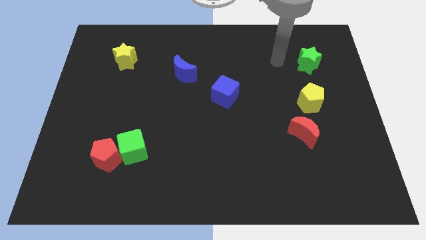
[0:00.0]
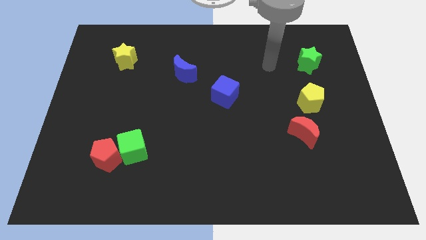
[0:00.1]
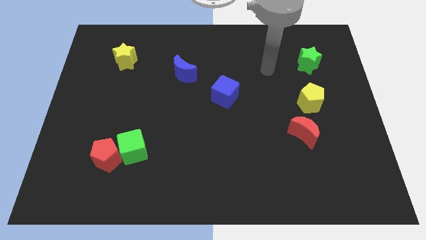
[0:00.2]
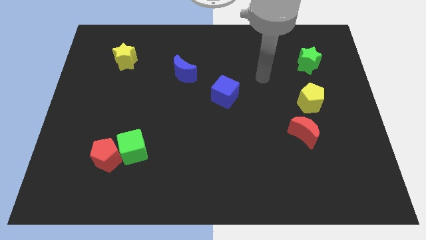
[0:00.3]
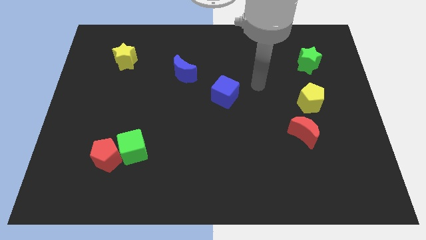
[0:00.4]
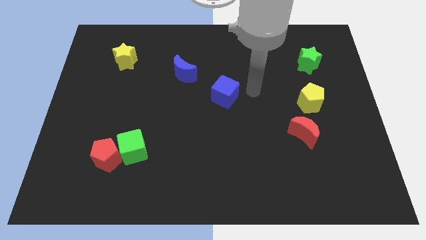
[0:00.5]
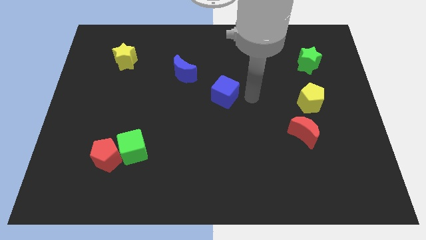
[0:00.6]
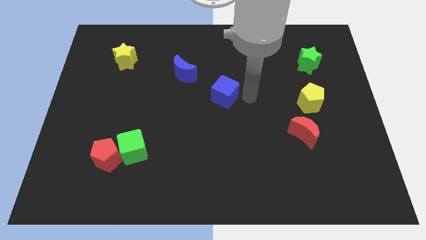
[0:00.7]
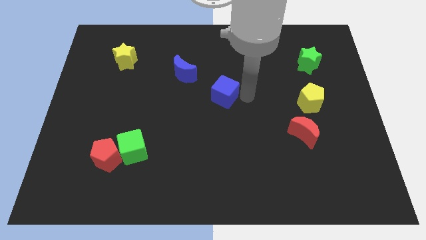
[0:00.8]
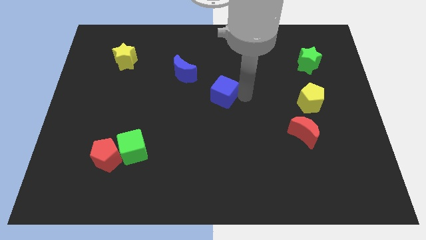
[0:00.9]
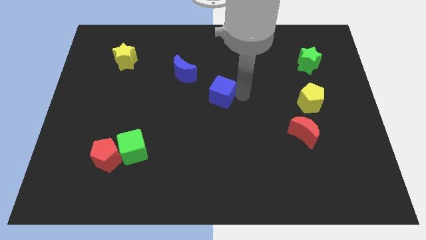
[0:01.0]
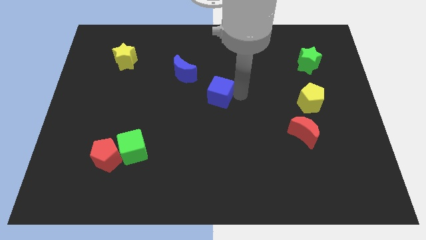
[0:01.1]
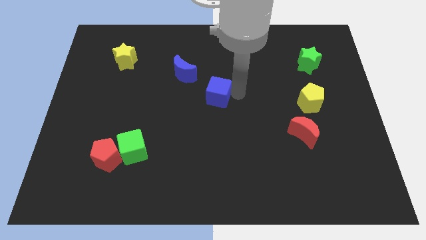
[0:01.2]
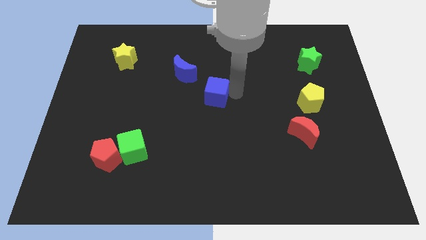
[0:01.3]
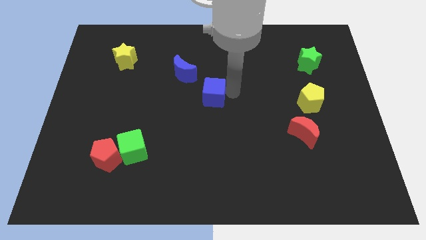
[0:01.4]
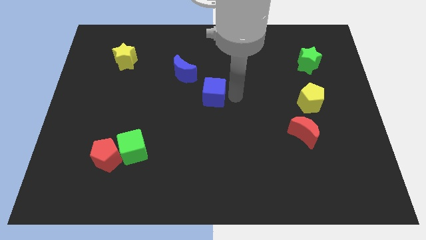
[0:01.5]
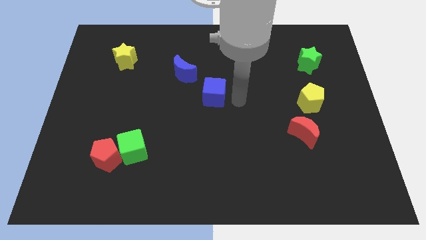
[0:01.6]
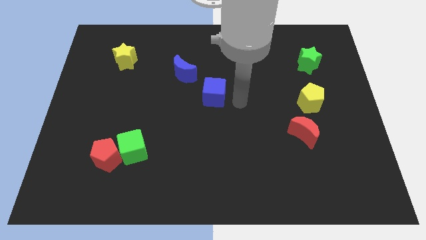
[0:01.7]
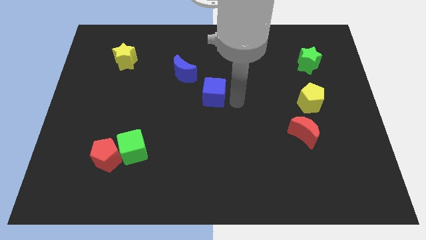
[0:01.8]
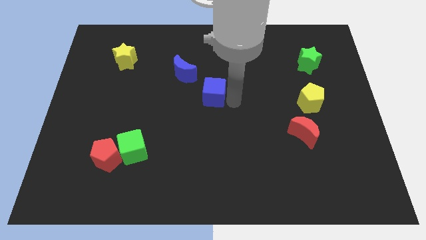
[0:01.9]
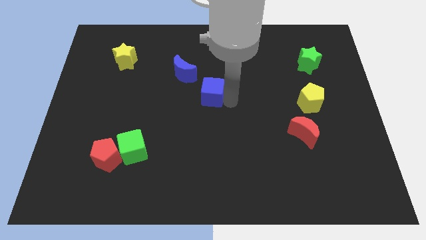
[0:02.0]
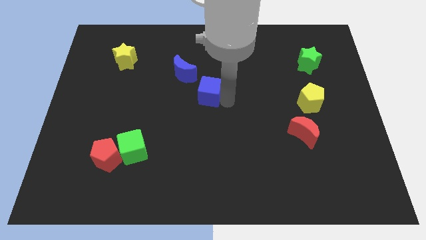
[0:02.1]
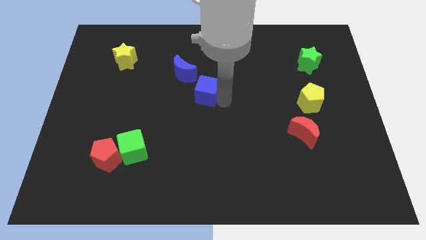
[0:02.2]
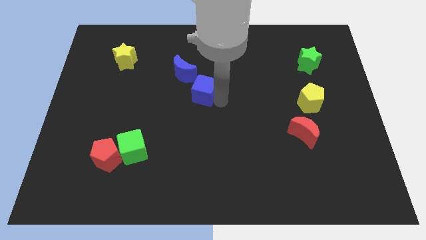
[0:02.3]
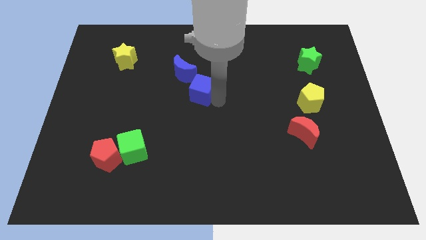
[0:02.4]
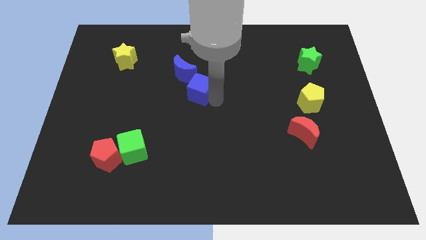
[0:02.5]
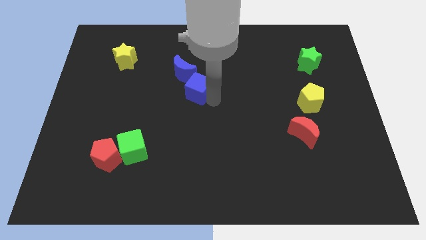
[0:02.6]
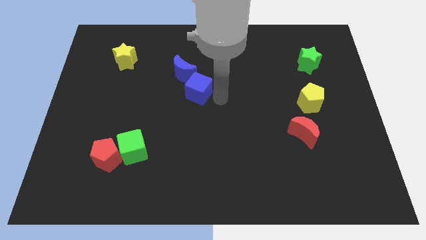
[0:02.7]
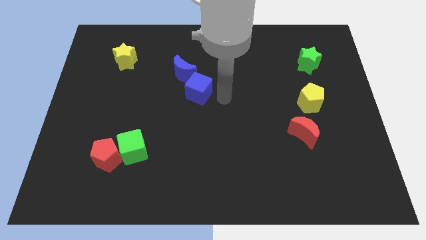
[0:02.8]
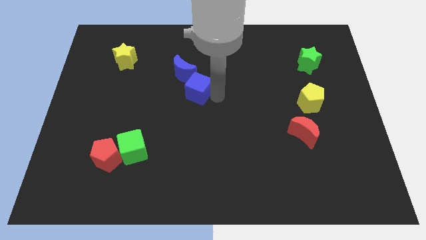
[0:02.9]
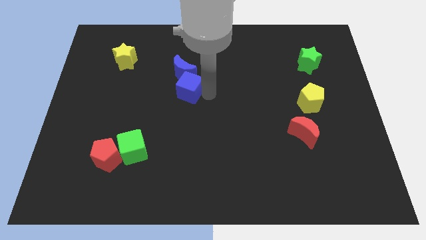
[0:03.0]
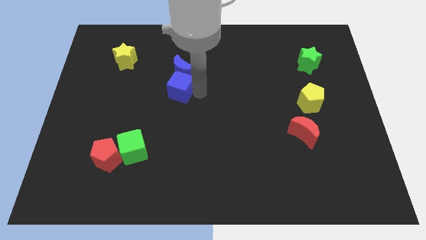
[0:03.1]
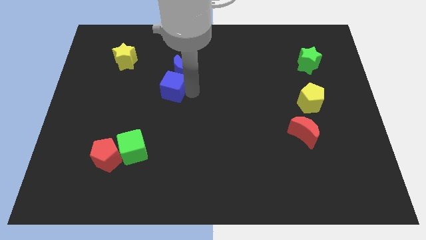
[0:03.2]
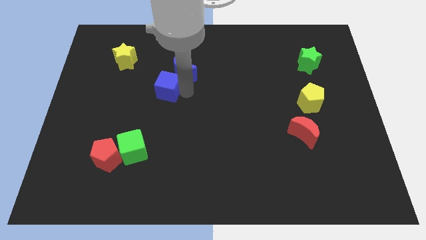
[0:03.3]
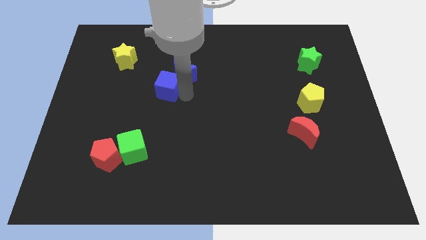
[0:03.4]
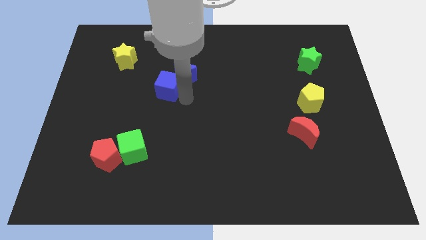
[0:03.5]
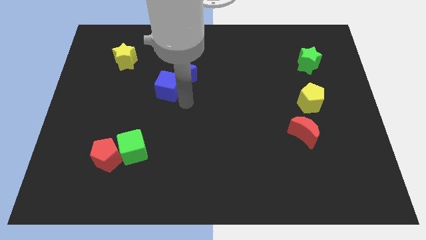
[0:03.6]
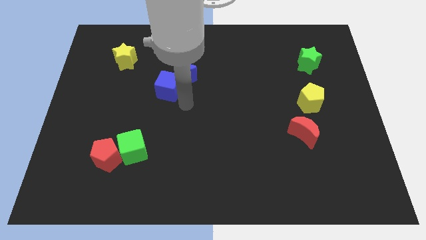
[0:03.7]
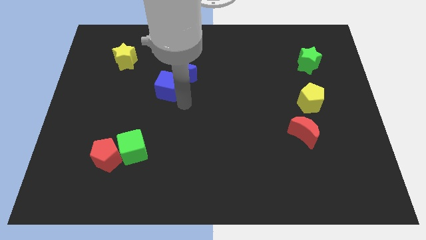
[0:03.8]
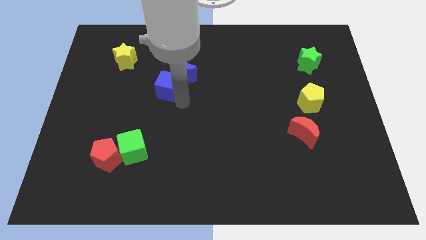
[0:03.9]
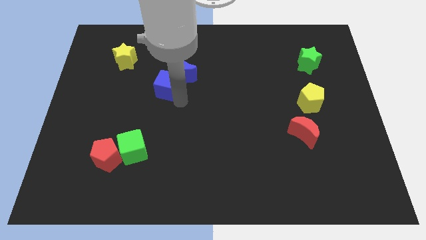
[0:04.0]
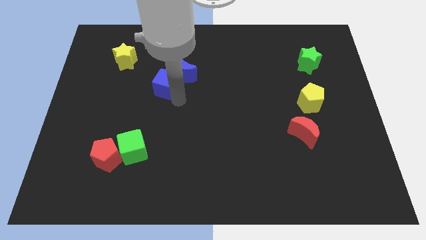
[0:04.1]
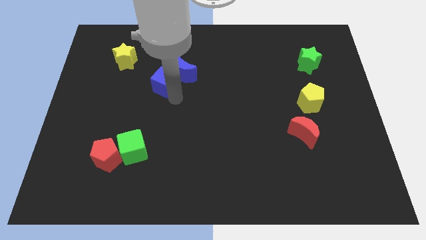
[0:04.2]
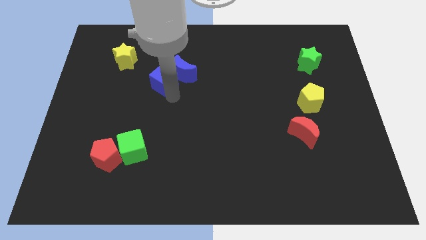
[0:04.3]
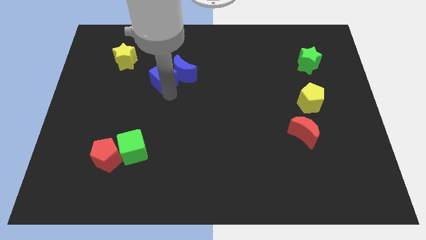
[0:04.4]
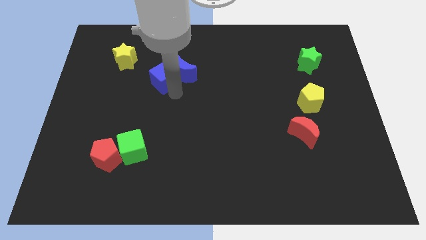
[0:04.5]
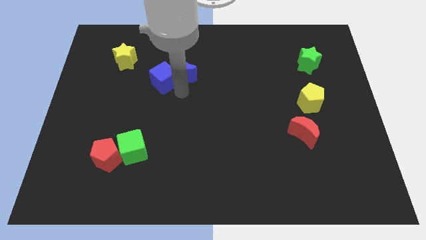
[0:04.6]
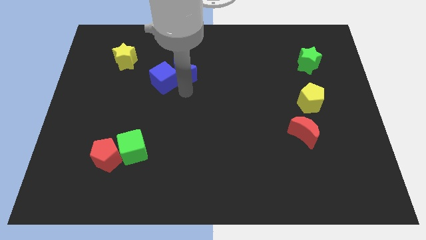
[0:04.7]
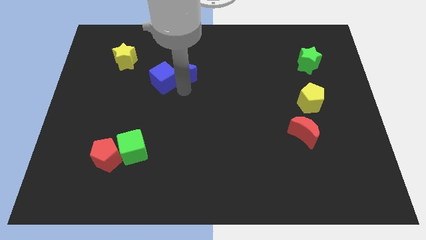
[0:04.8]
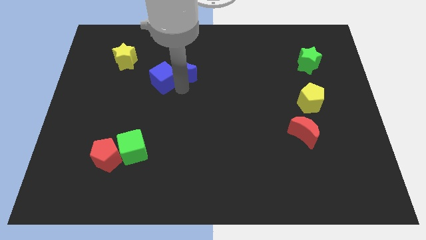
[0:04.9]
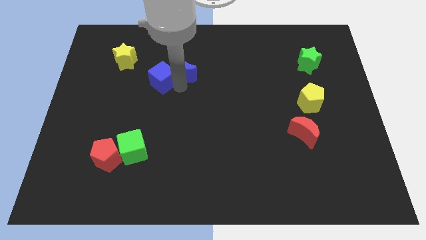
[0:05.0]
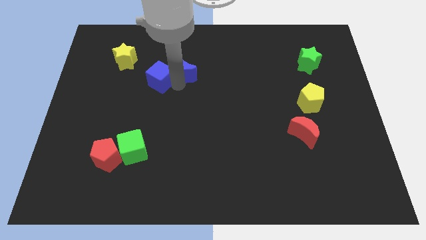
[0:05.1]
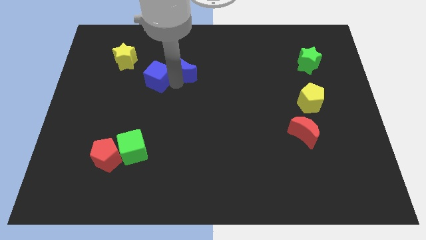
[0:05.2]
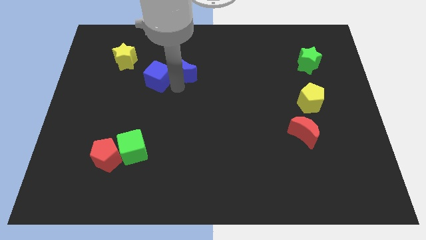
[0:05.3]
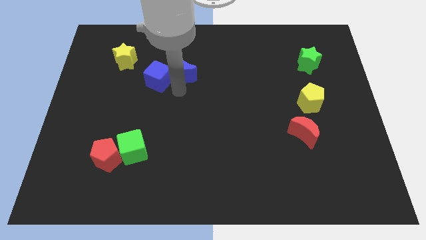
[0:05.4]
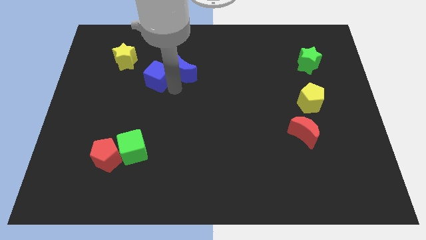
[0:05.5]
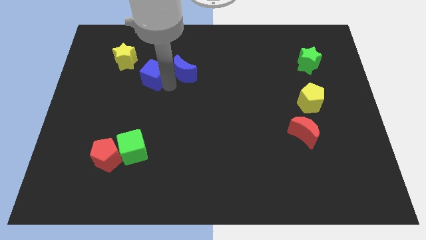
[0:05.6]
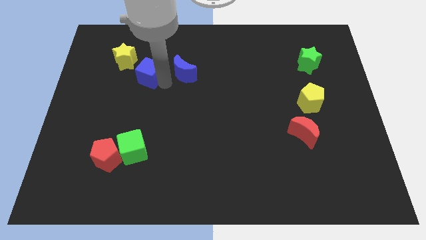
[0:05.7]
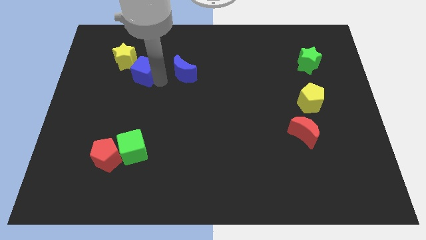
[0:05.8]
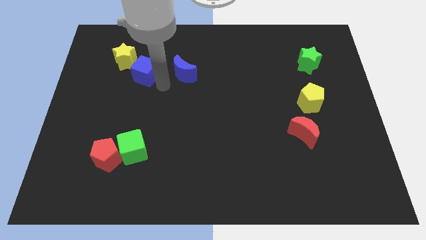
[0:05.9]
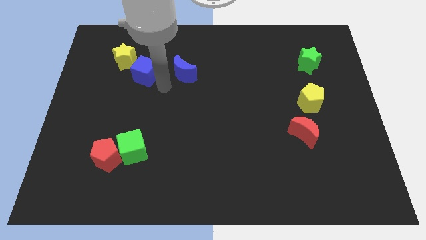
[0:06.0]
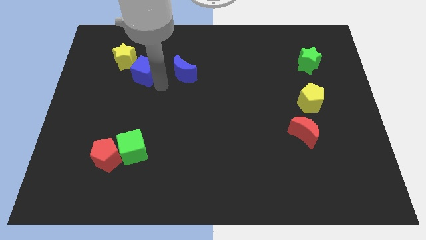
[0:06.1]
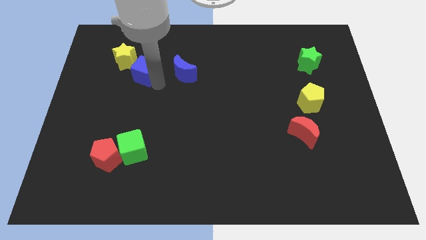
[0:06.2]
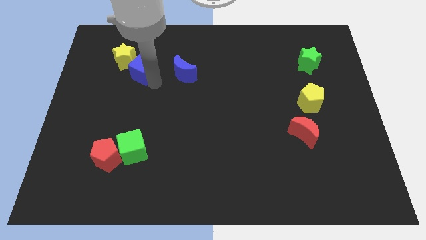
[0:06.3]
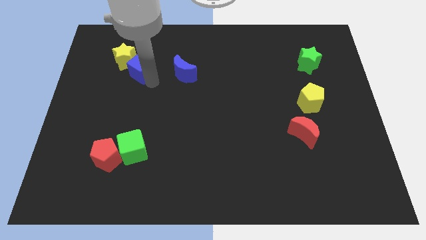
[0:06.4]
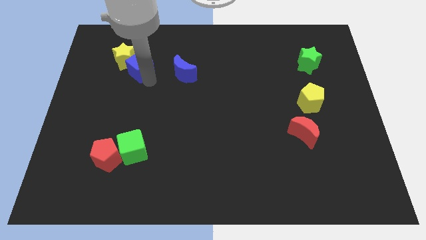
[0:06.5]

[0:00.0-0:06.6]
push the blue cube close to the yellow star
